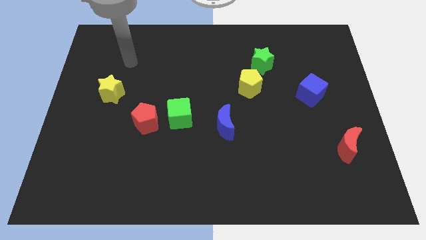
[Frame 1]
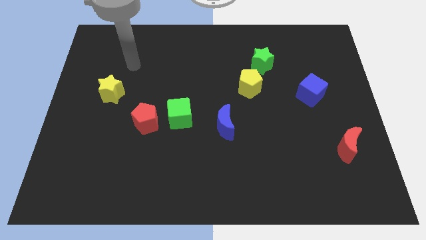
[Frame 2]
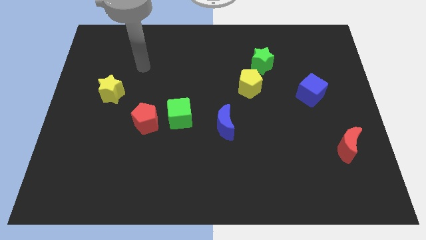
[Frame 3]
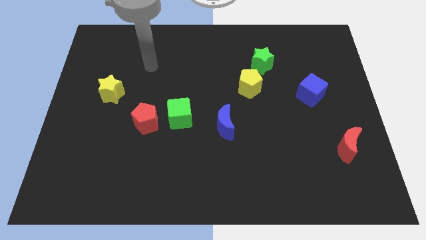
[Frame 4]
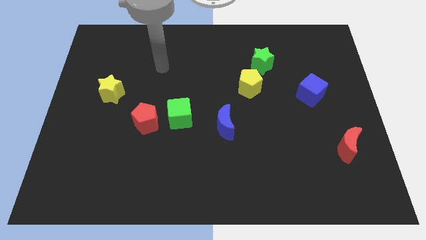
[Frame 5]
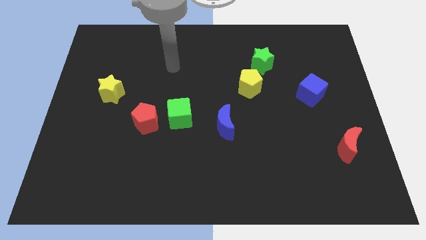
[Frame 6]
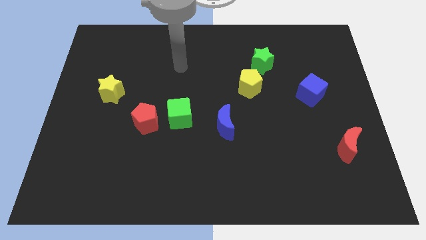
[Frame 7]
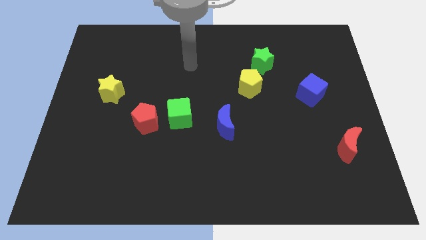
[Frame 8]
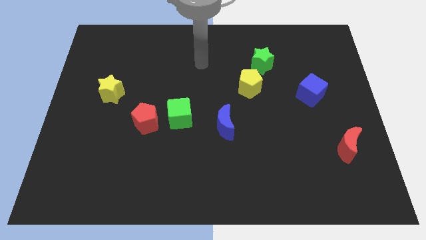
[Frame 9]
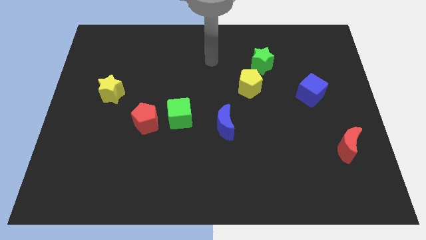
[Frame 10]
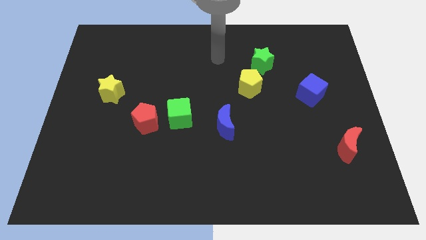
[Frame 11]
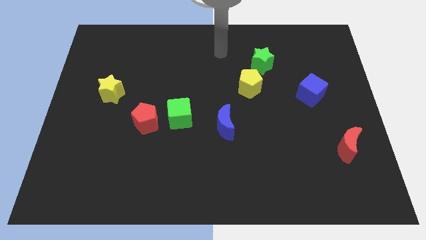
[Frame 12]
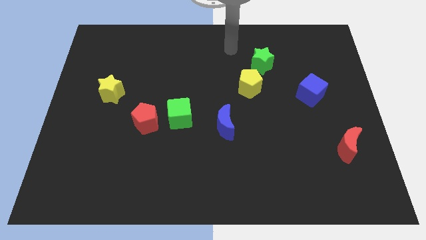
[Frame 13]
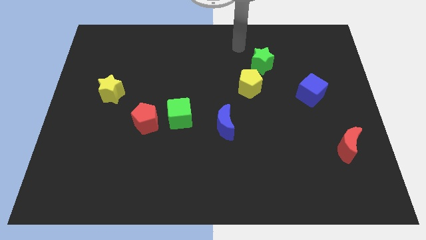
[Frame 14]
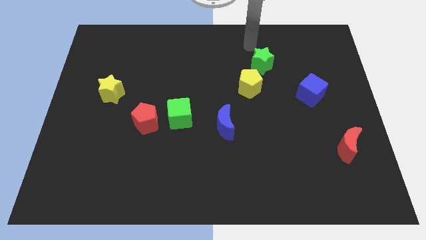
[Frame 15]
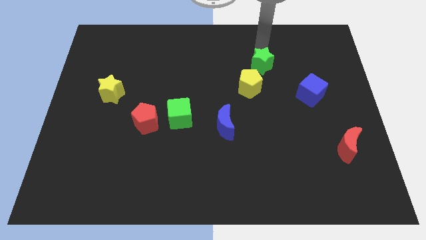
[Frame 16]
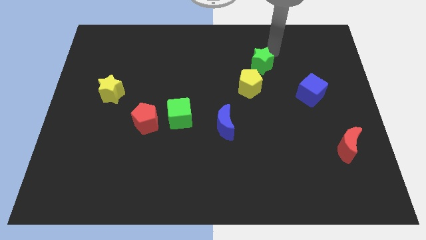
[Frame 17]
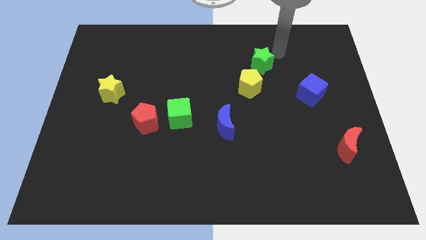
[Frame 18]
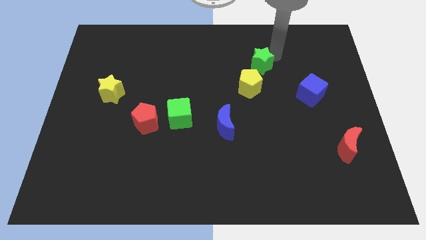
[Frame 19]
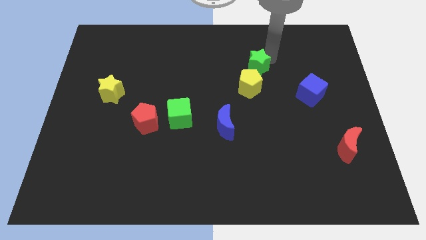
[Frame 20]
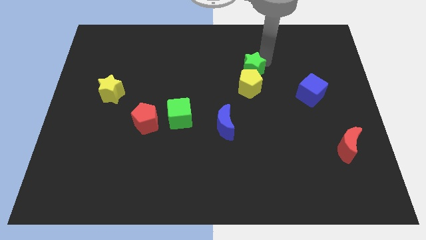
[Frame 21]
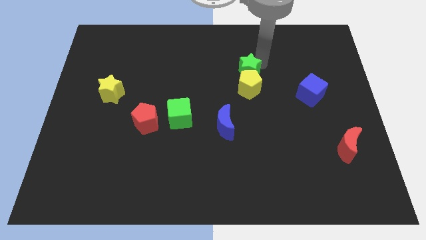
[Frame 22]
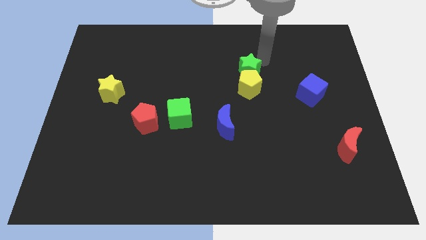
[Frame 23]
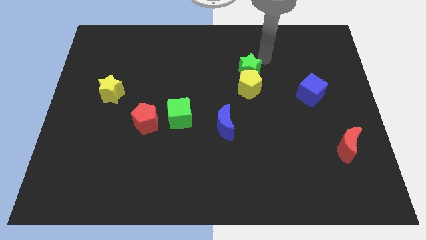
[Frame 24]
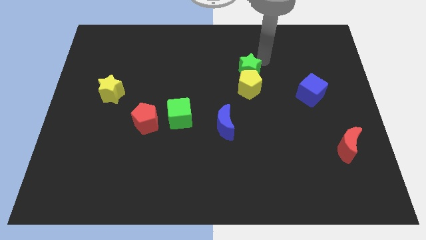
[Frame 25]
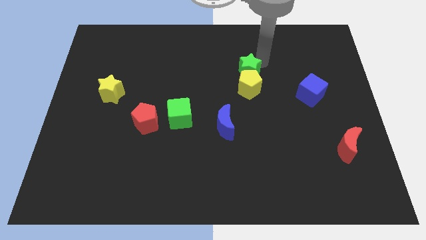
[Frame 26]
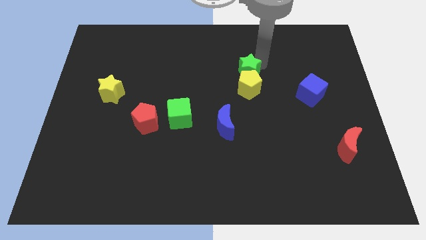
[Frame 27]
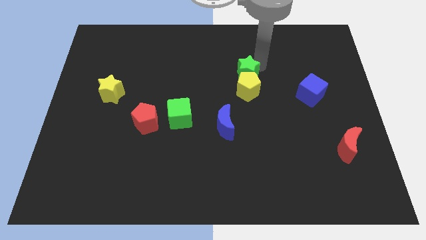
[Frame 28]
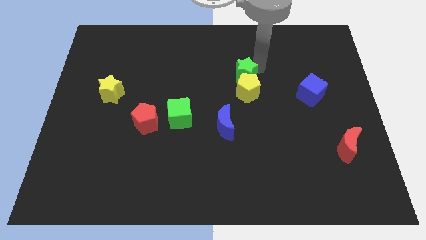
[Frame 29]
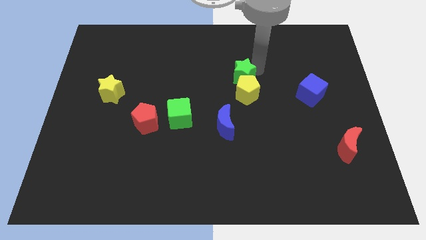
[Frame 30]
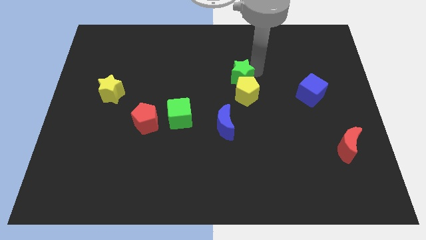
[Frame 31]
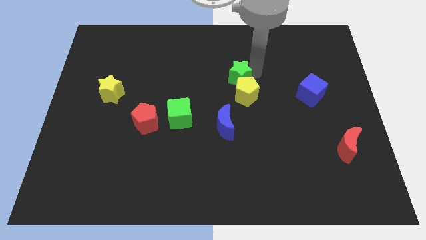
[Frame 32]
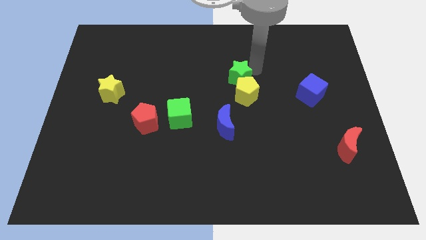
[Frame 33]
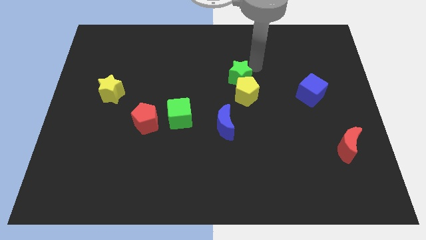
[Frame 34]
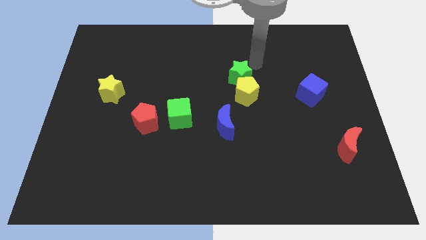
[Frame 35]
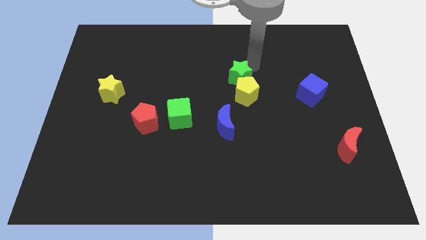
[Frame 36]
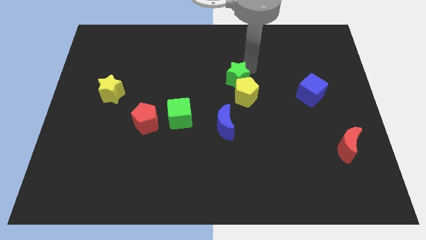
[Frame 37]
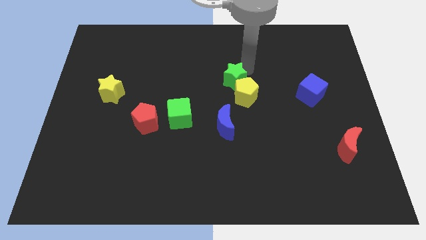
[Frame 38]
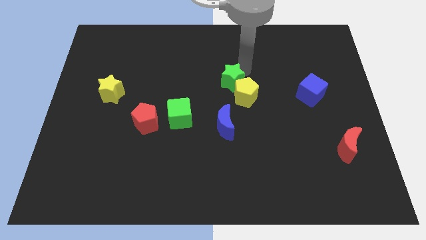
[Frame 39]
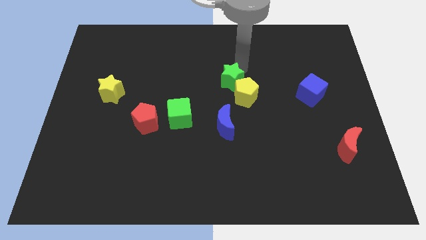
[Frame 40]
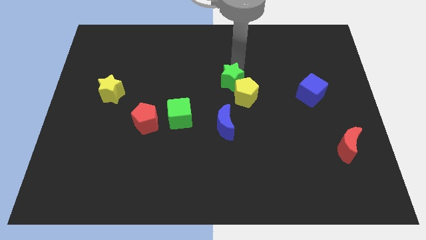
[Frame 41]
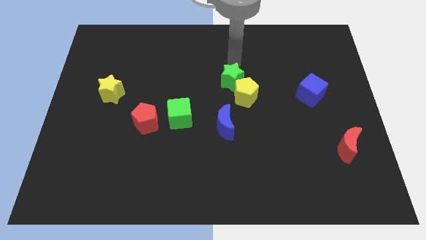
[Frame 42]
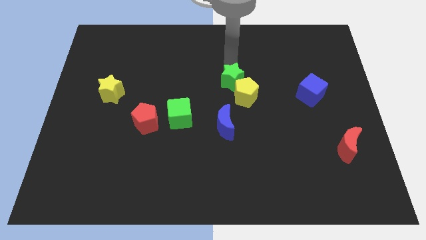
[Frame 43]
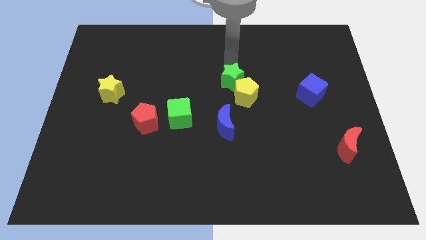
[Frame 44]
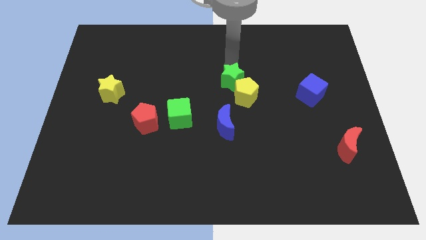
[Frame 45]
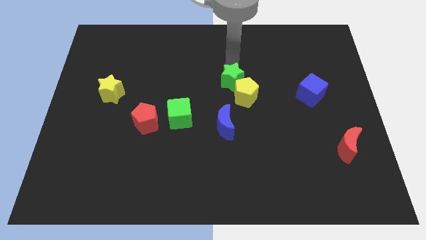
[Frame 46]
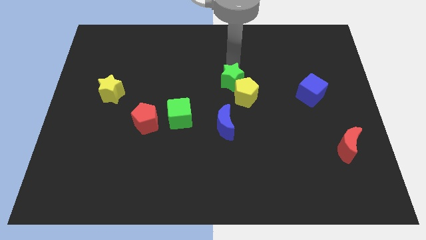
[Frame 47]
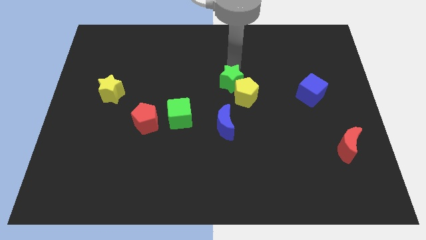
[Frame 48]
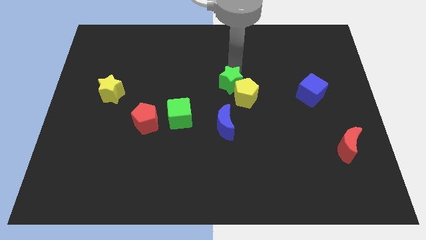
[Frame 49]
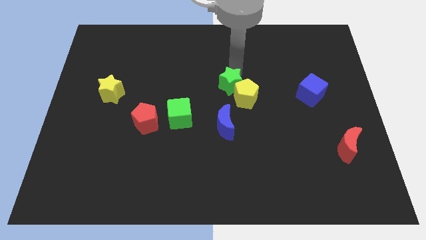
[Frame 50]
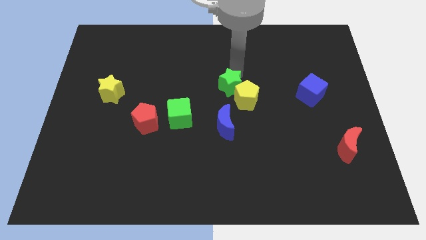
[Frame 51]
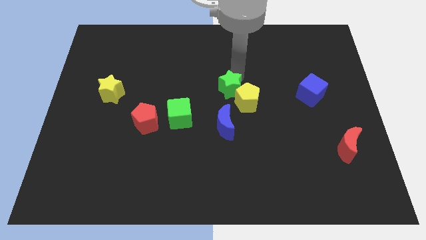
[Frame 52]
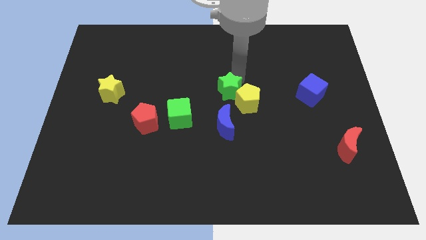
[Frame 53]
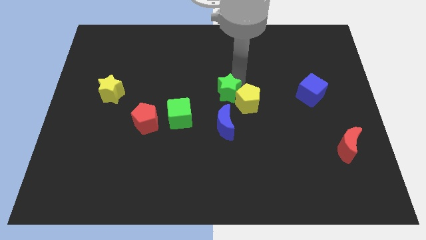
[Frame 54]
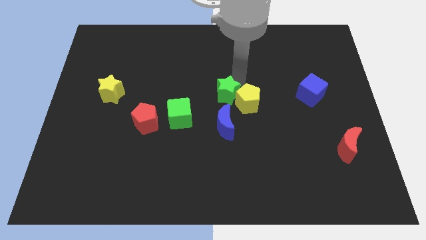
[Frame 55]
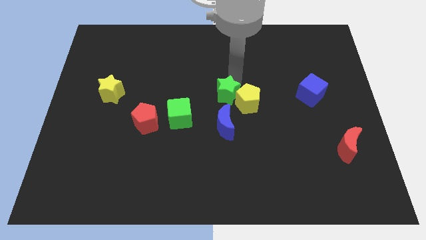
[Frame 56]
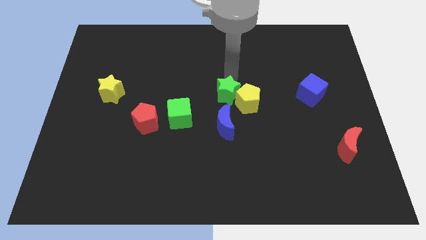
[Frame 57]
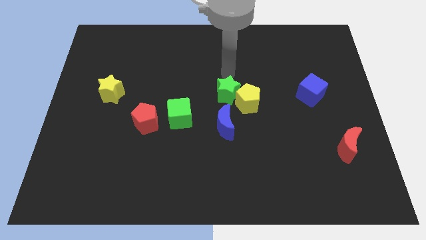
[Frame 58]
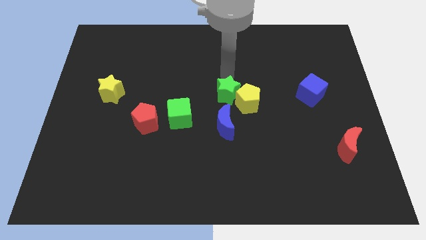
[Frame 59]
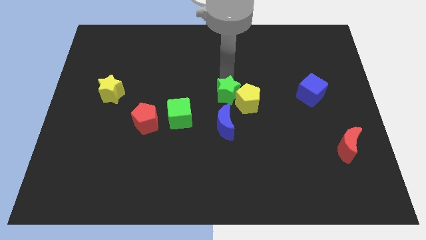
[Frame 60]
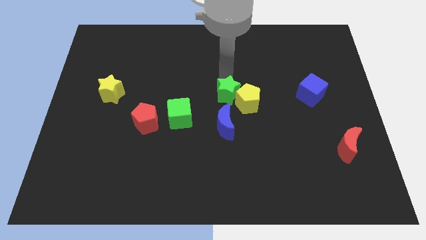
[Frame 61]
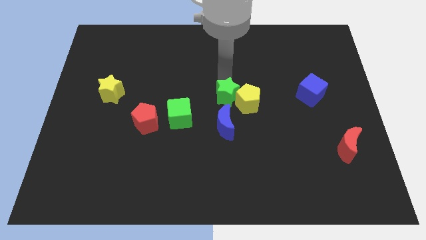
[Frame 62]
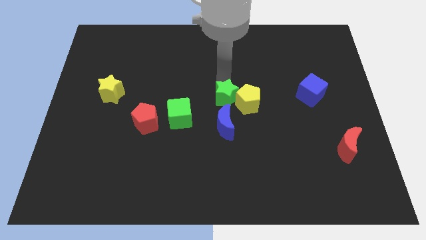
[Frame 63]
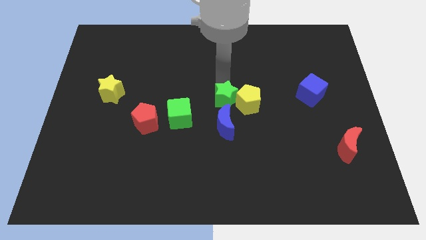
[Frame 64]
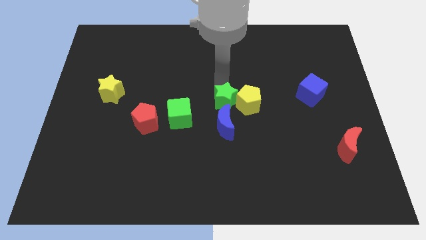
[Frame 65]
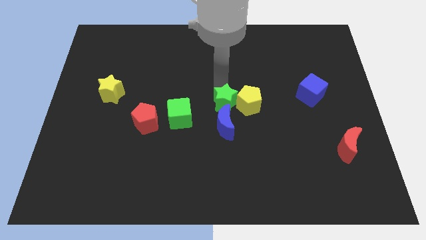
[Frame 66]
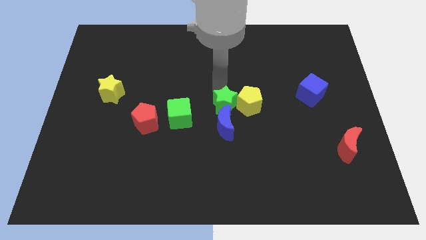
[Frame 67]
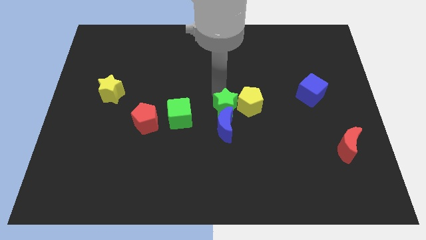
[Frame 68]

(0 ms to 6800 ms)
move the green star to the blue moon
